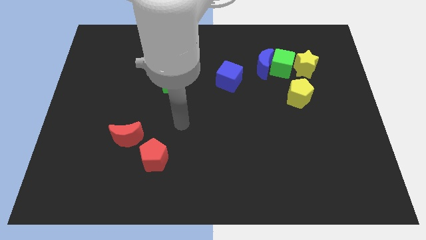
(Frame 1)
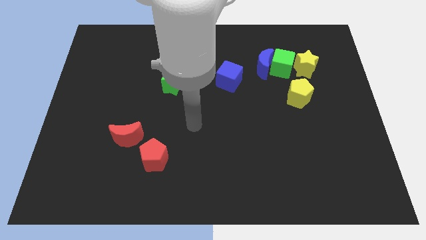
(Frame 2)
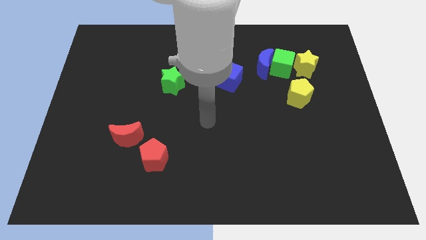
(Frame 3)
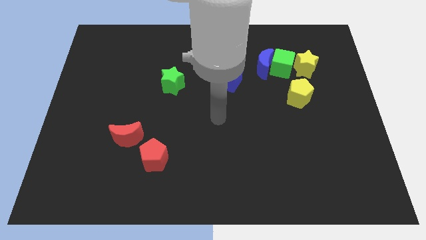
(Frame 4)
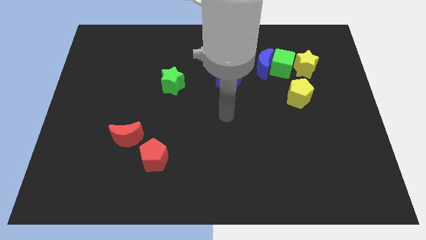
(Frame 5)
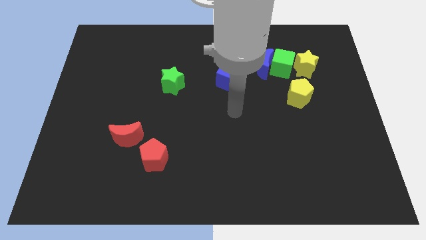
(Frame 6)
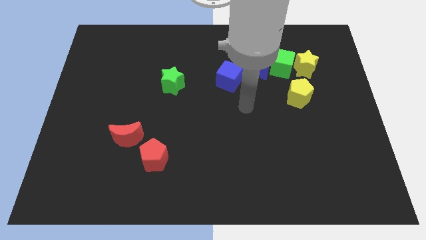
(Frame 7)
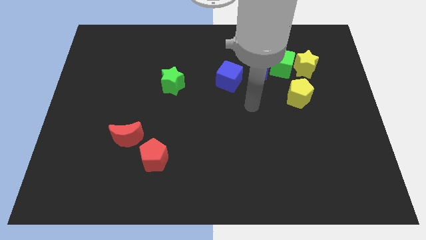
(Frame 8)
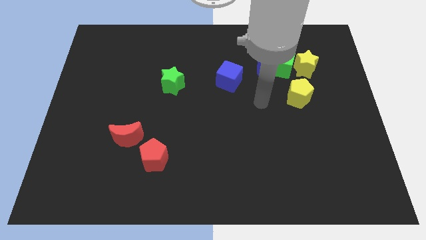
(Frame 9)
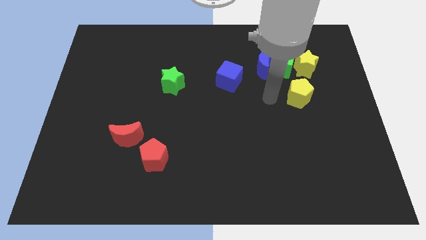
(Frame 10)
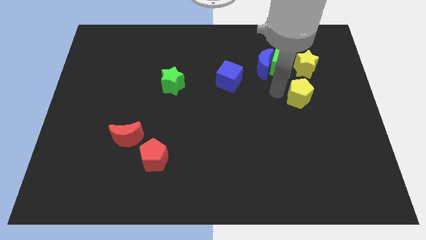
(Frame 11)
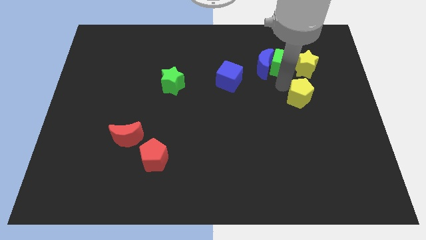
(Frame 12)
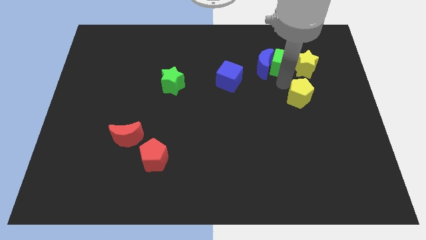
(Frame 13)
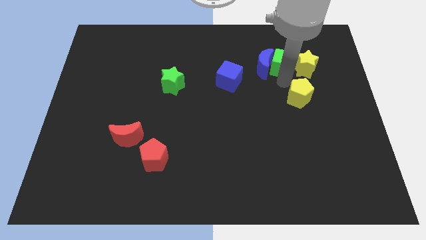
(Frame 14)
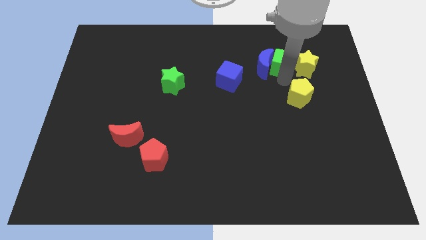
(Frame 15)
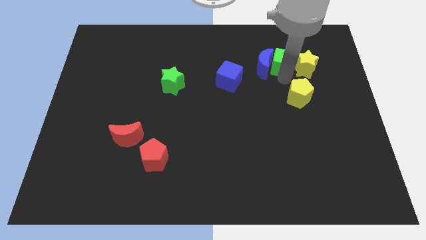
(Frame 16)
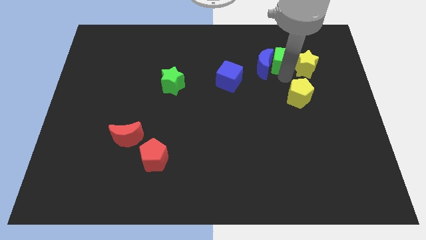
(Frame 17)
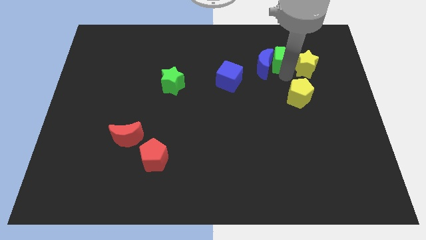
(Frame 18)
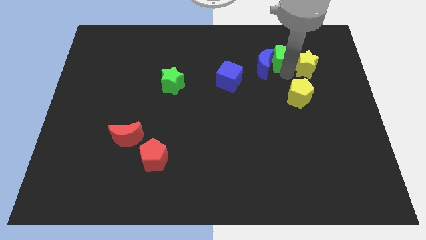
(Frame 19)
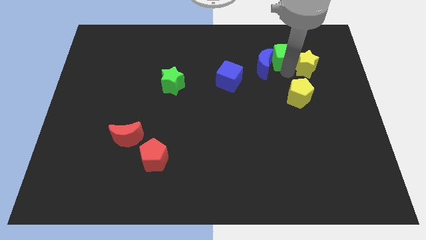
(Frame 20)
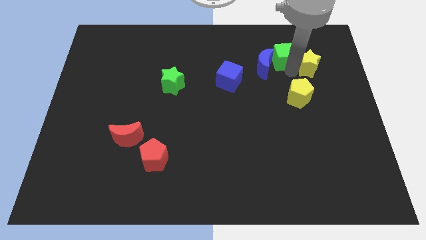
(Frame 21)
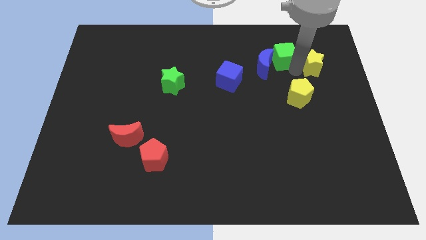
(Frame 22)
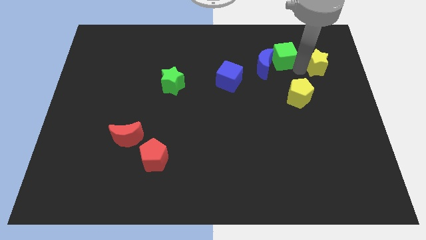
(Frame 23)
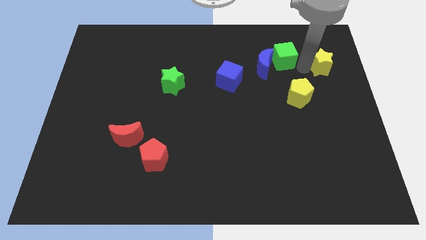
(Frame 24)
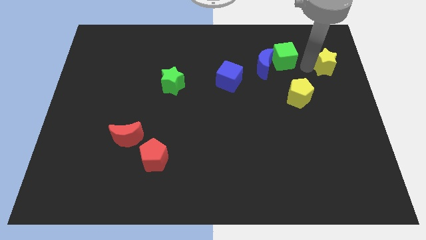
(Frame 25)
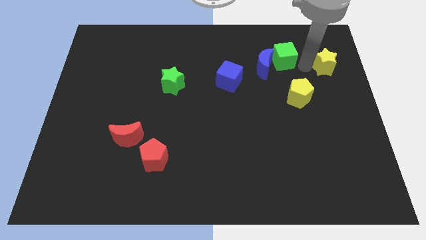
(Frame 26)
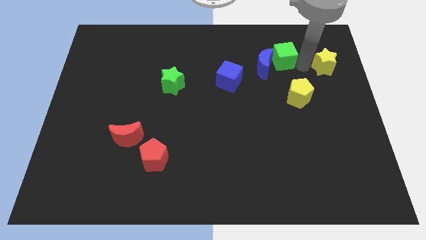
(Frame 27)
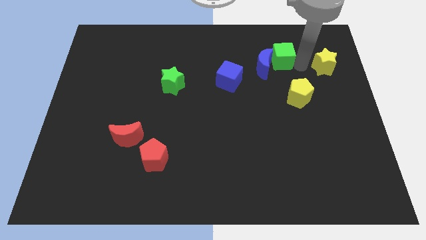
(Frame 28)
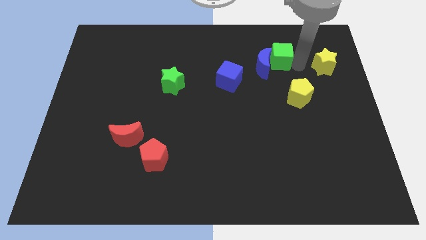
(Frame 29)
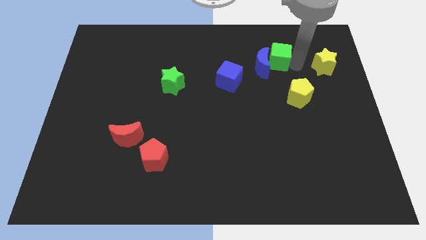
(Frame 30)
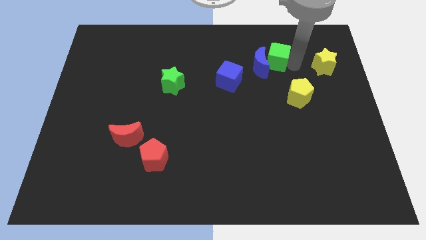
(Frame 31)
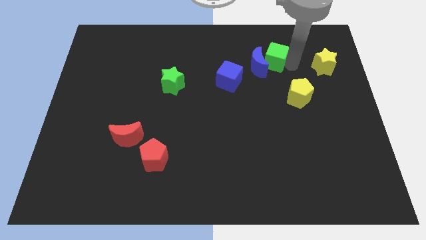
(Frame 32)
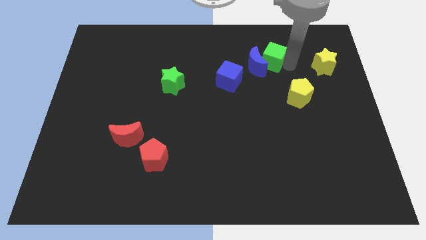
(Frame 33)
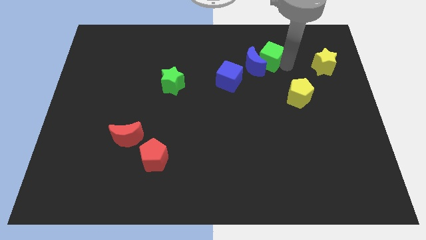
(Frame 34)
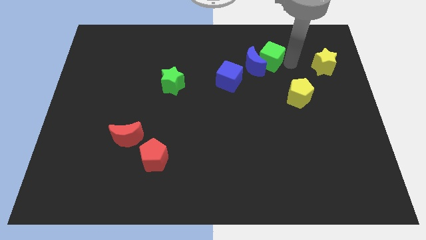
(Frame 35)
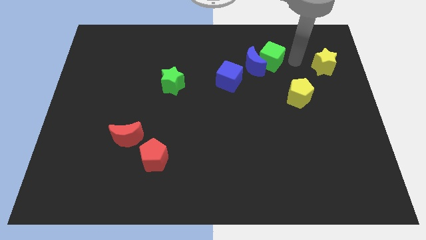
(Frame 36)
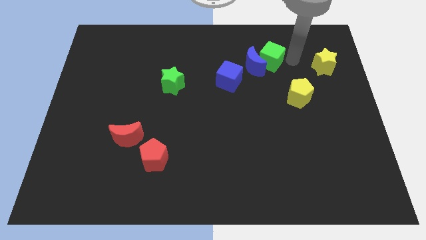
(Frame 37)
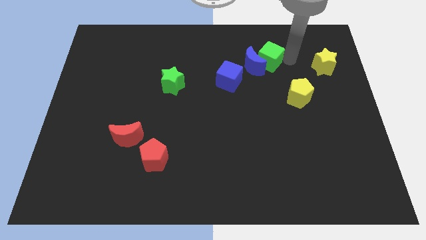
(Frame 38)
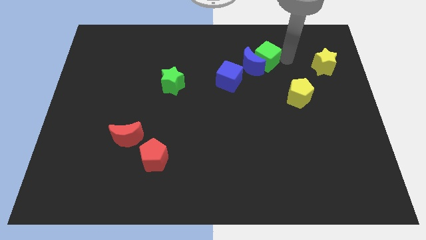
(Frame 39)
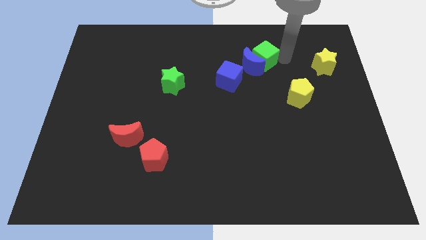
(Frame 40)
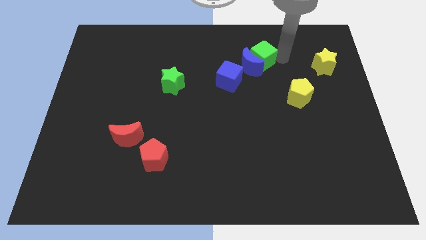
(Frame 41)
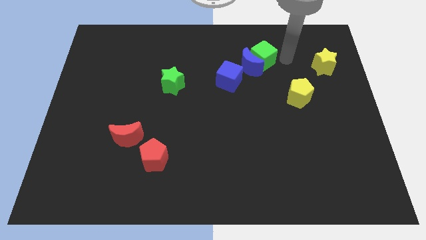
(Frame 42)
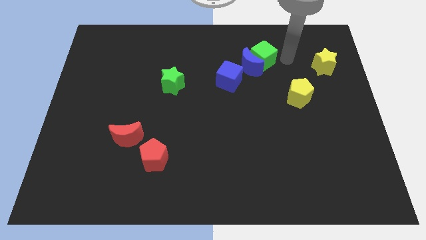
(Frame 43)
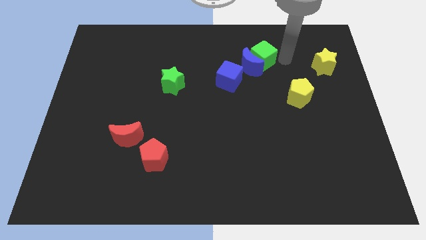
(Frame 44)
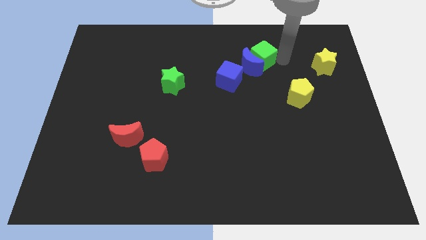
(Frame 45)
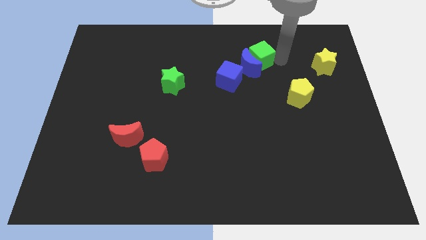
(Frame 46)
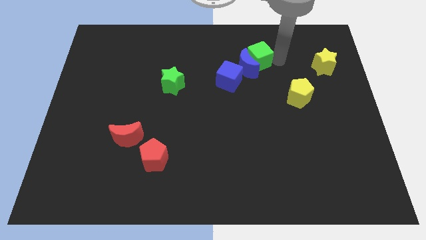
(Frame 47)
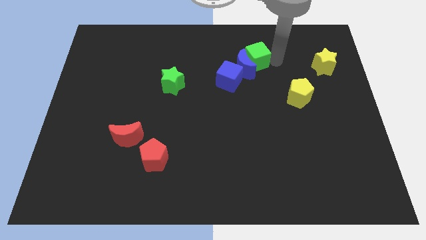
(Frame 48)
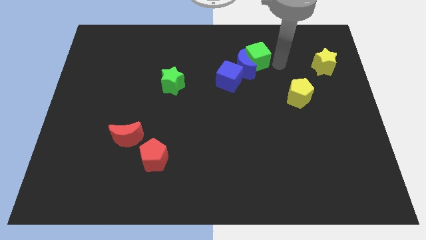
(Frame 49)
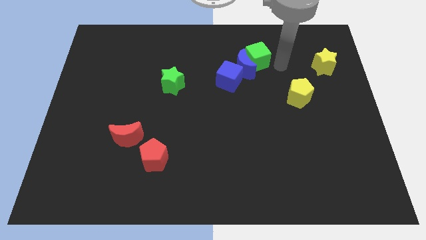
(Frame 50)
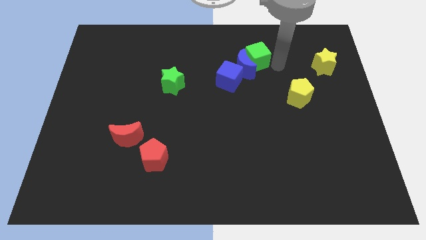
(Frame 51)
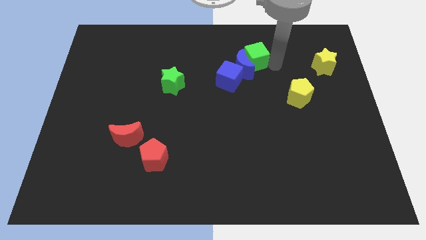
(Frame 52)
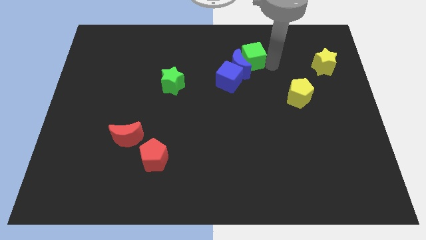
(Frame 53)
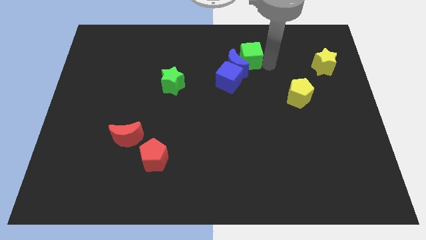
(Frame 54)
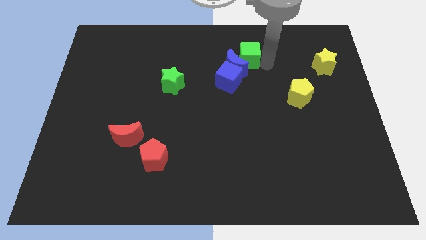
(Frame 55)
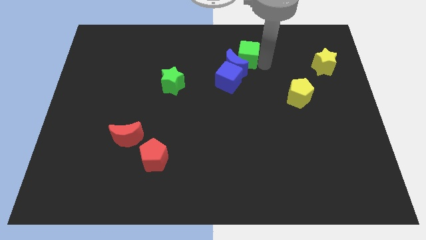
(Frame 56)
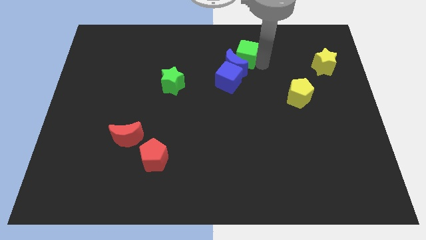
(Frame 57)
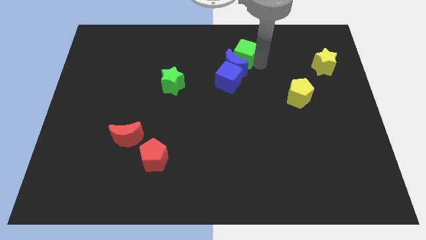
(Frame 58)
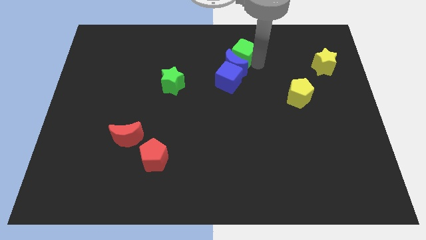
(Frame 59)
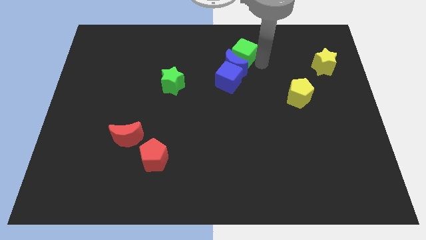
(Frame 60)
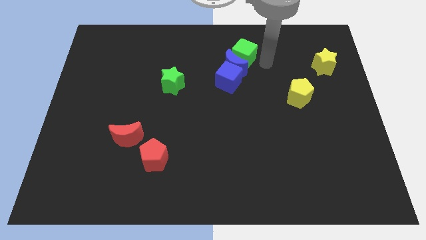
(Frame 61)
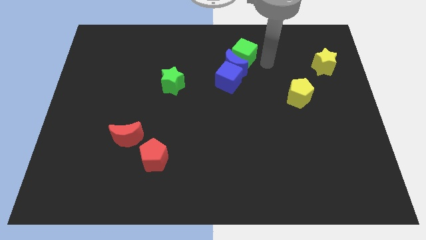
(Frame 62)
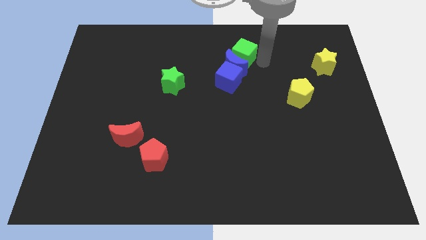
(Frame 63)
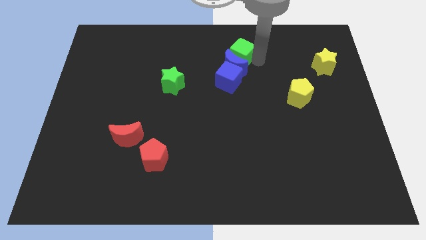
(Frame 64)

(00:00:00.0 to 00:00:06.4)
separate the green cube from the blue moon and yellow star

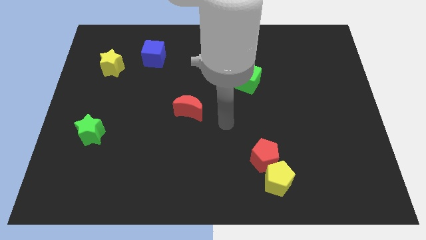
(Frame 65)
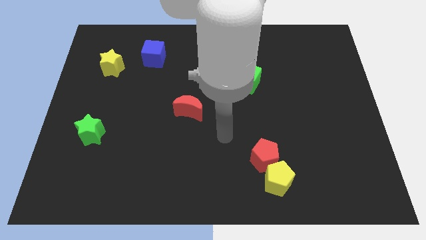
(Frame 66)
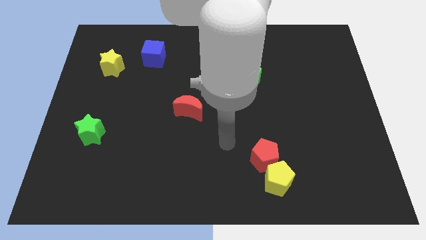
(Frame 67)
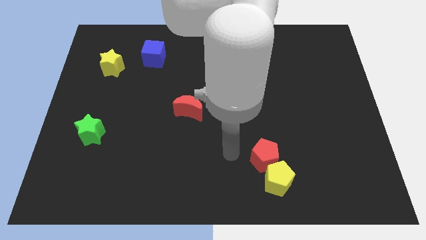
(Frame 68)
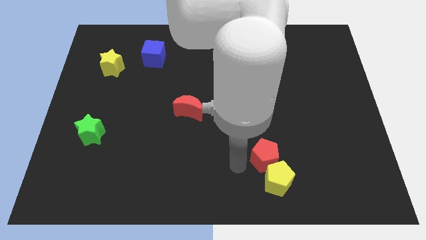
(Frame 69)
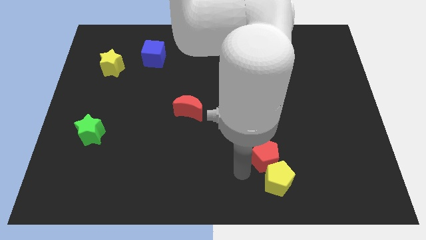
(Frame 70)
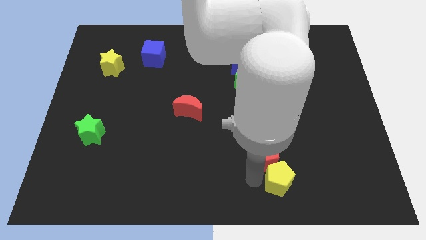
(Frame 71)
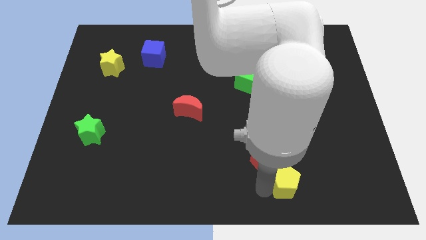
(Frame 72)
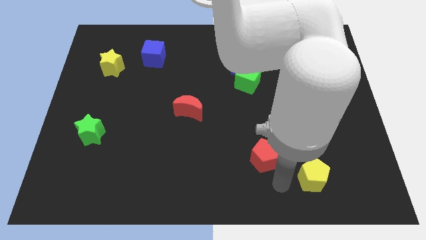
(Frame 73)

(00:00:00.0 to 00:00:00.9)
pull the red pentagon apart from the yellow pentagon

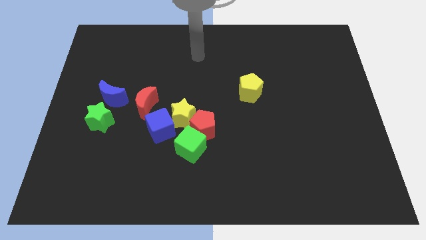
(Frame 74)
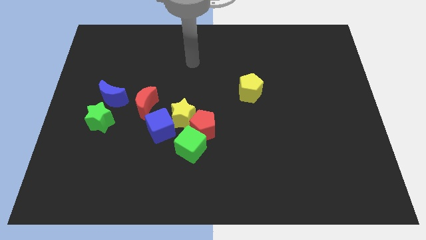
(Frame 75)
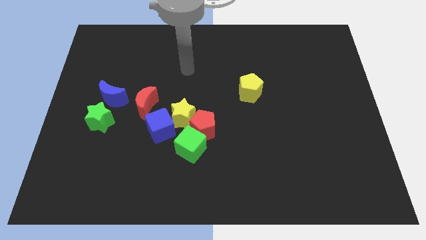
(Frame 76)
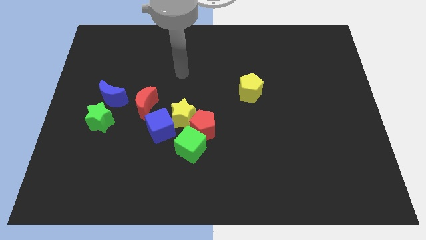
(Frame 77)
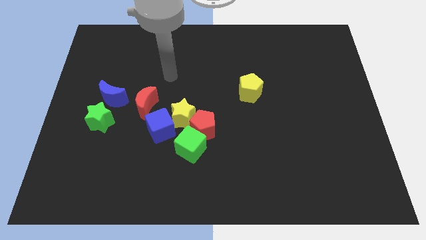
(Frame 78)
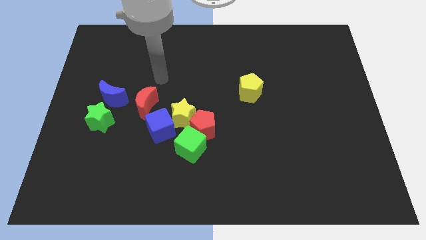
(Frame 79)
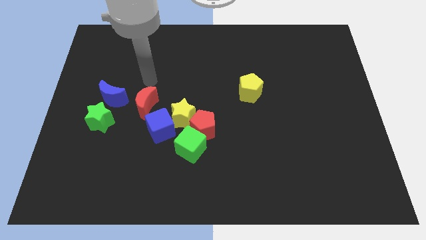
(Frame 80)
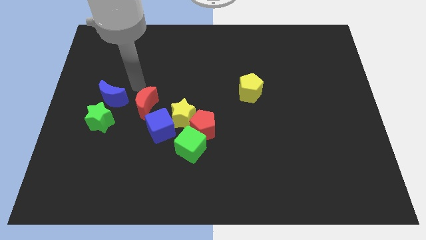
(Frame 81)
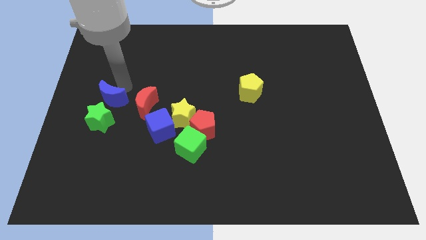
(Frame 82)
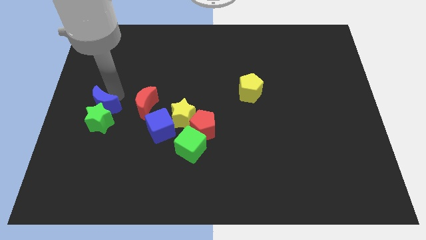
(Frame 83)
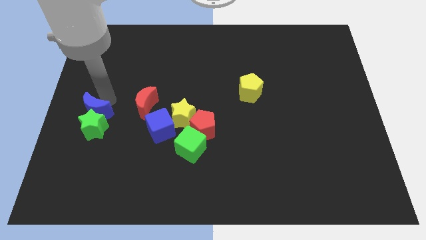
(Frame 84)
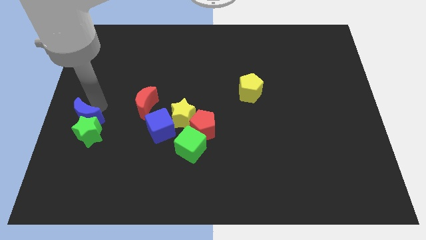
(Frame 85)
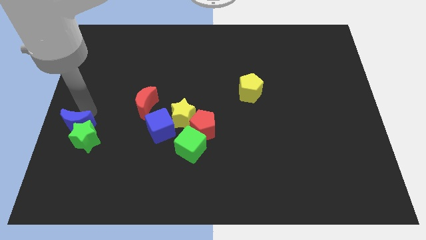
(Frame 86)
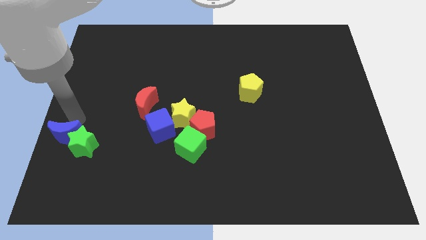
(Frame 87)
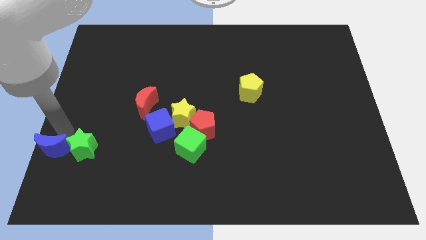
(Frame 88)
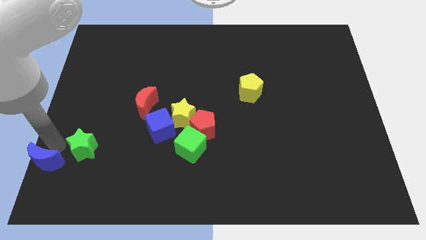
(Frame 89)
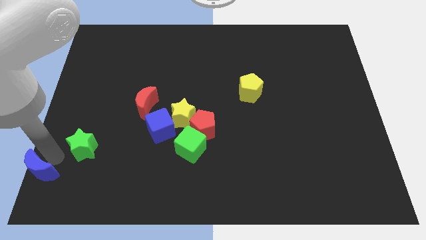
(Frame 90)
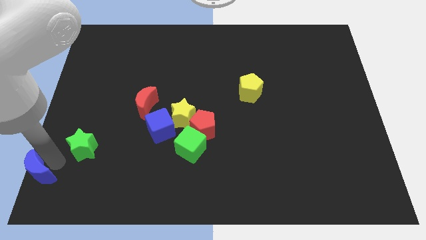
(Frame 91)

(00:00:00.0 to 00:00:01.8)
pull the green star apart from the blue moon

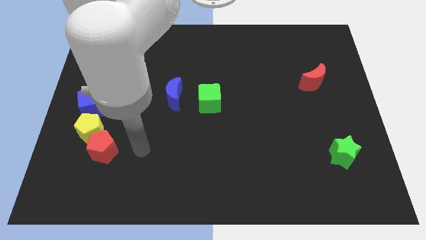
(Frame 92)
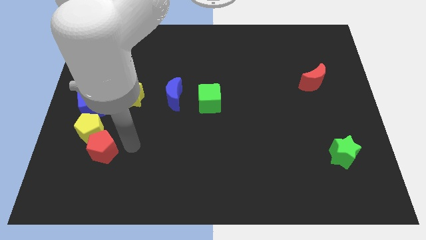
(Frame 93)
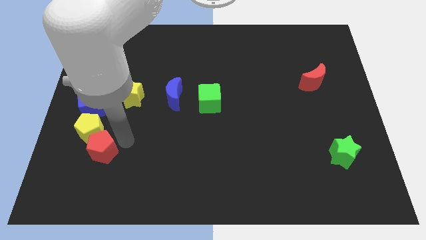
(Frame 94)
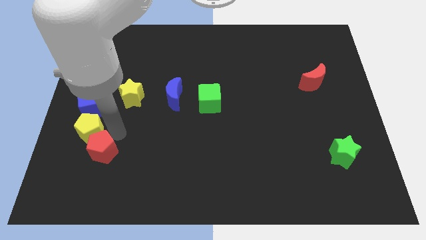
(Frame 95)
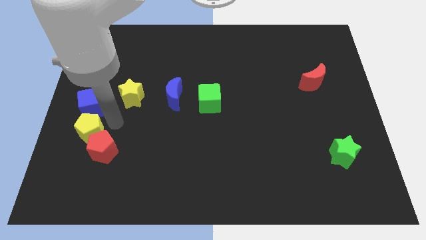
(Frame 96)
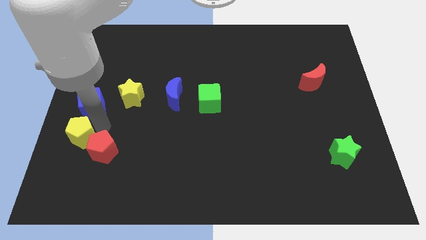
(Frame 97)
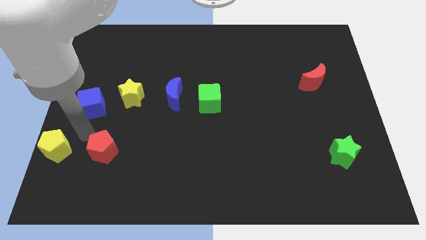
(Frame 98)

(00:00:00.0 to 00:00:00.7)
move the red pentagon away from the yellow pentagon
